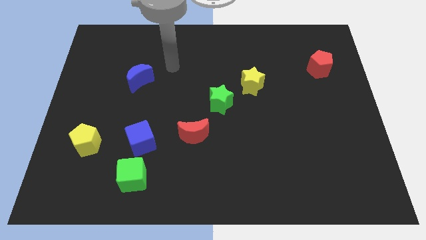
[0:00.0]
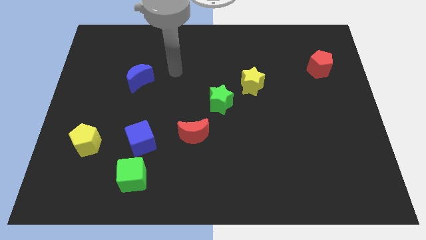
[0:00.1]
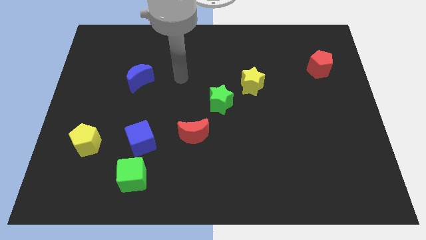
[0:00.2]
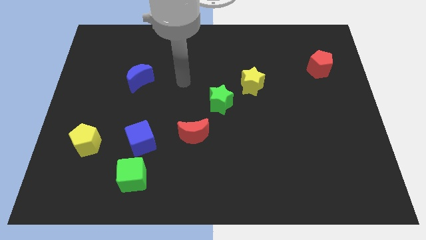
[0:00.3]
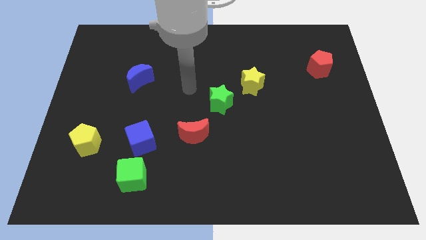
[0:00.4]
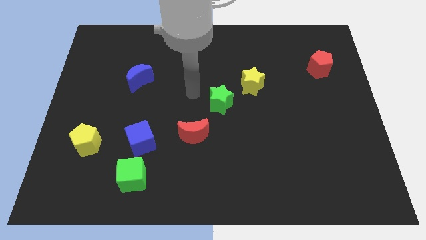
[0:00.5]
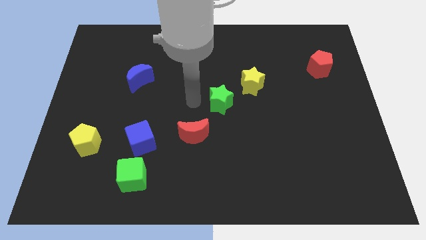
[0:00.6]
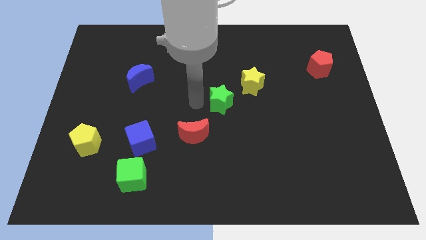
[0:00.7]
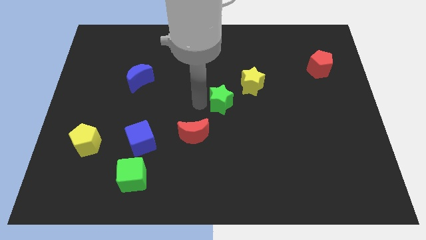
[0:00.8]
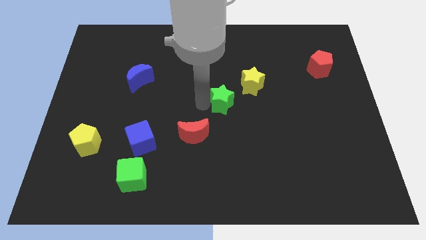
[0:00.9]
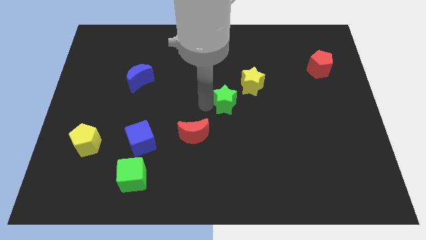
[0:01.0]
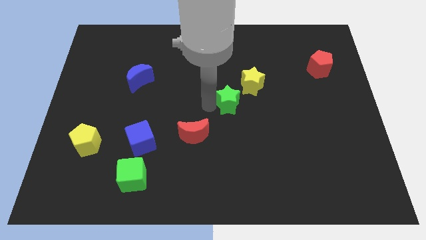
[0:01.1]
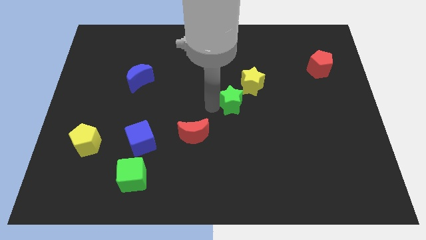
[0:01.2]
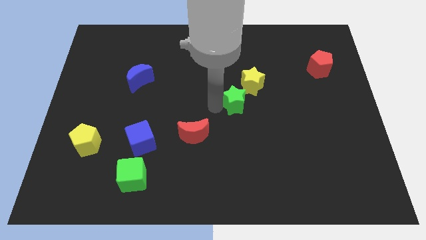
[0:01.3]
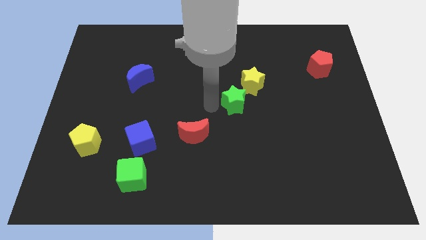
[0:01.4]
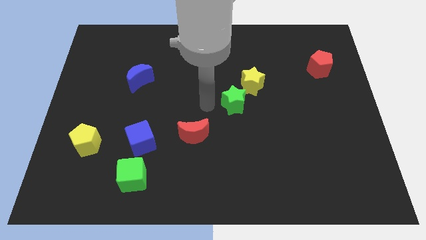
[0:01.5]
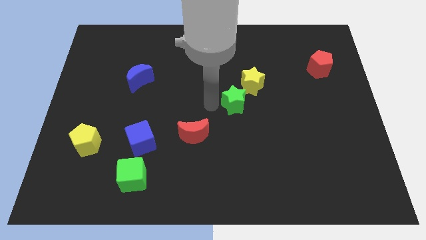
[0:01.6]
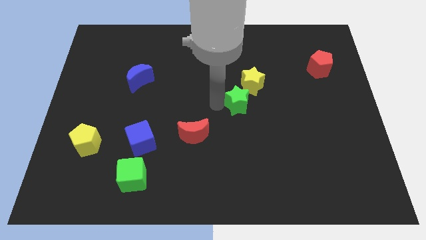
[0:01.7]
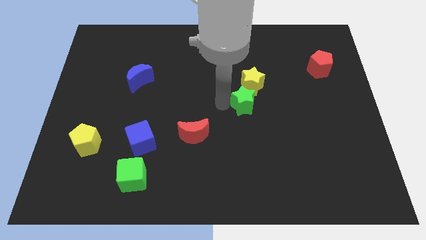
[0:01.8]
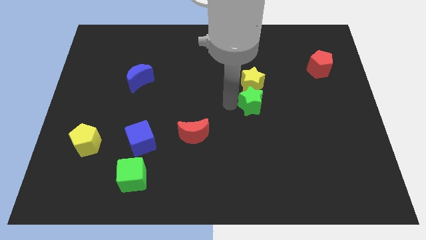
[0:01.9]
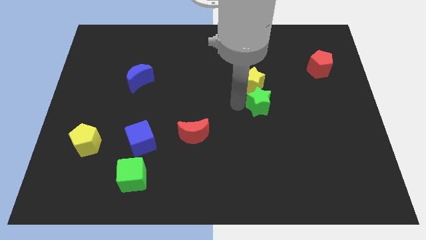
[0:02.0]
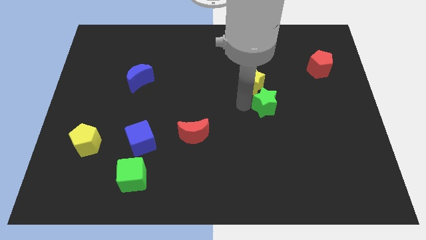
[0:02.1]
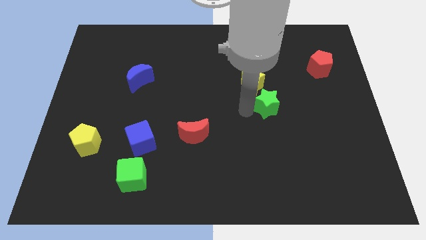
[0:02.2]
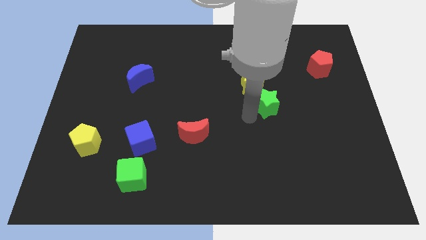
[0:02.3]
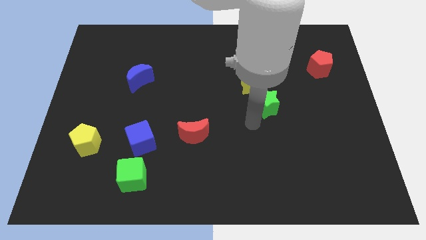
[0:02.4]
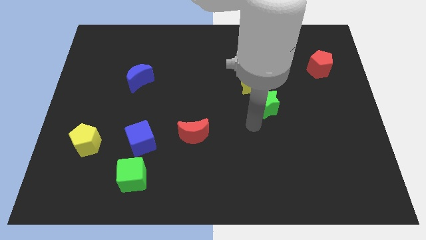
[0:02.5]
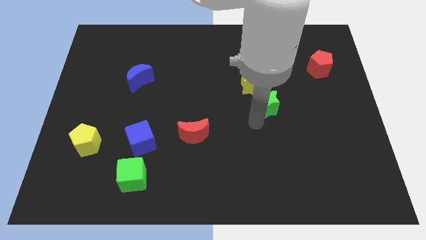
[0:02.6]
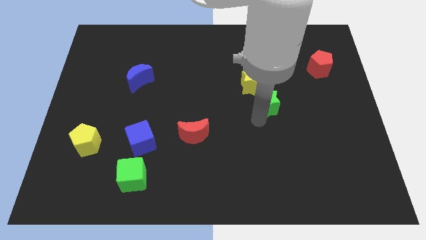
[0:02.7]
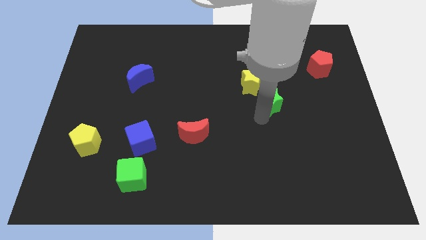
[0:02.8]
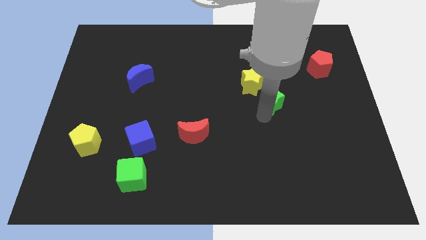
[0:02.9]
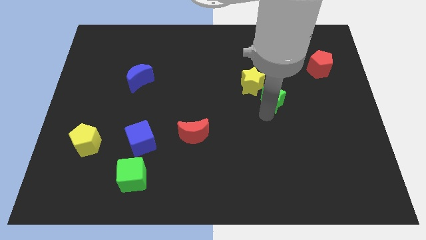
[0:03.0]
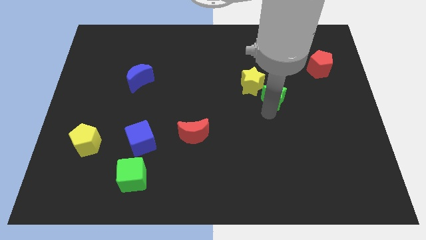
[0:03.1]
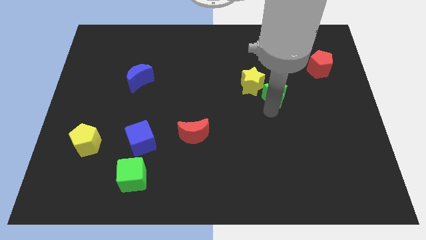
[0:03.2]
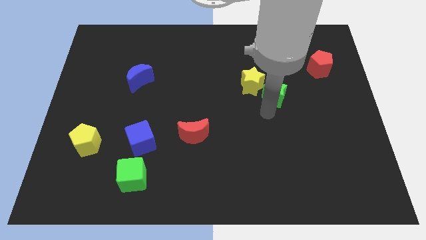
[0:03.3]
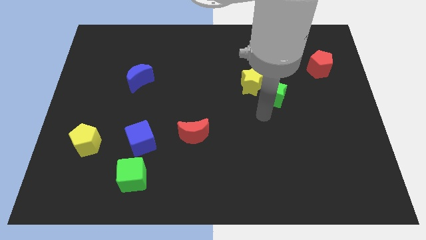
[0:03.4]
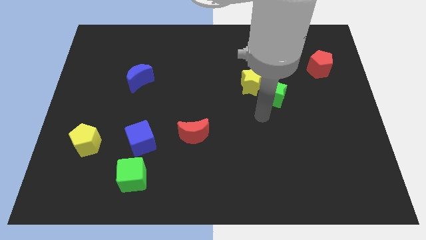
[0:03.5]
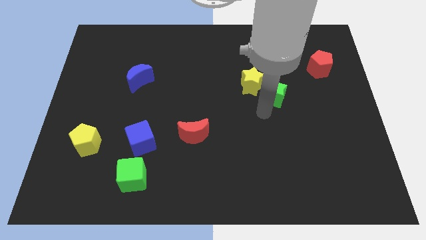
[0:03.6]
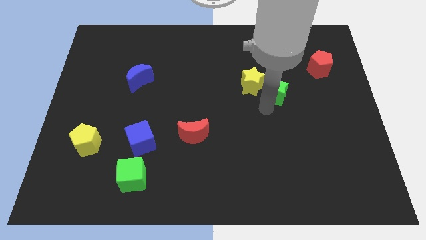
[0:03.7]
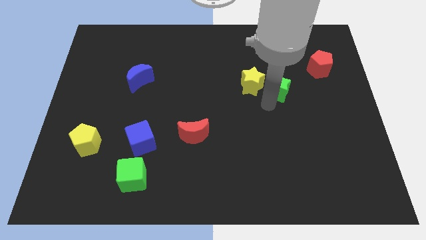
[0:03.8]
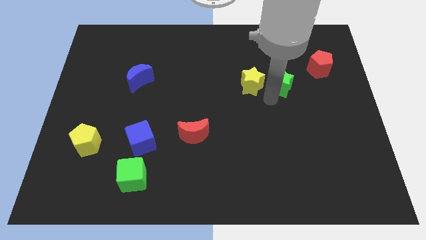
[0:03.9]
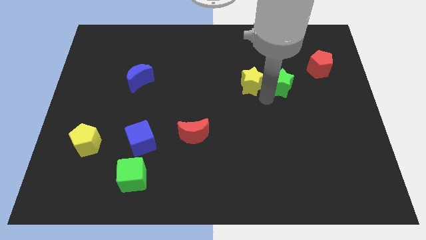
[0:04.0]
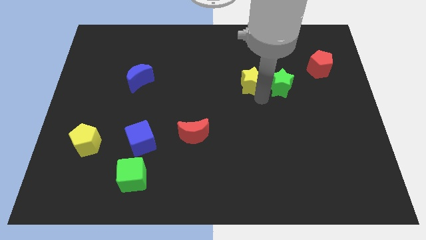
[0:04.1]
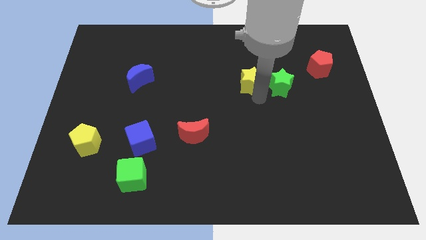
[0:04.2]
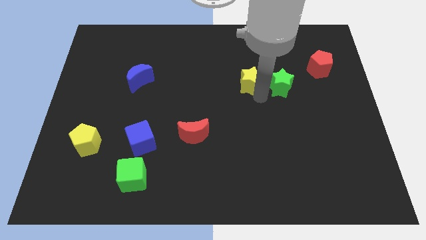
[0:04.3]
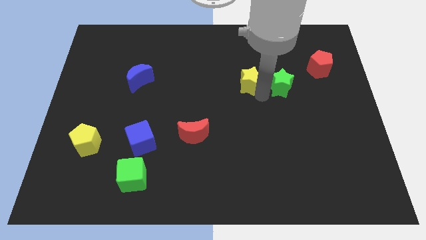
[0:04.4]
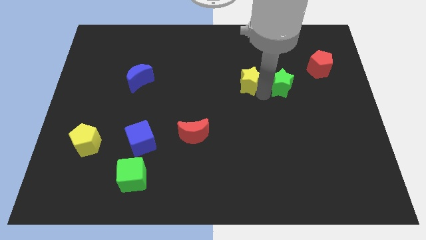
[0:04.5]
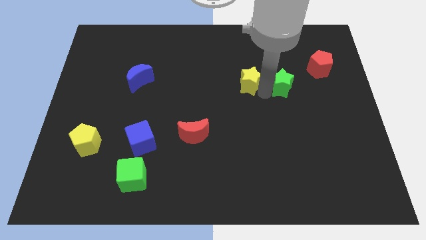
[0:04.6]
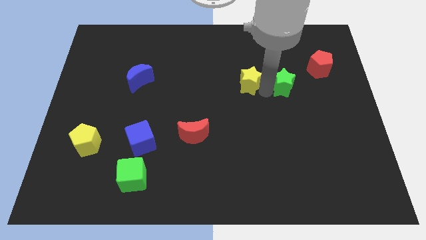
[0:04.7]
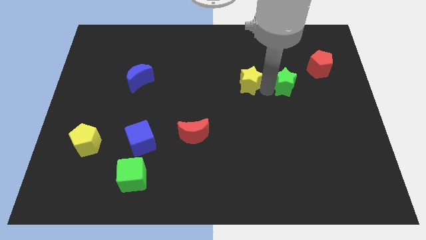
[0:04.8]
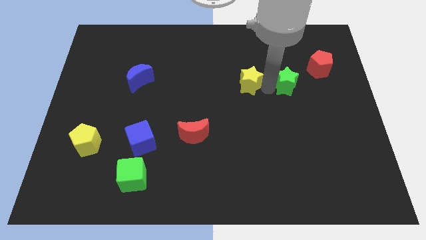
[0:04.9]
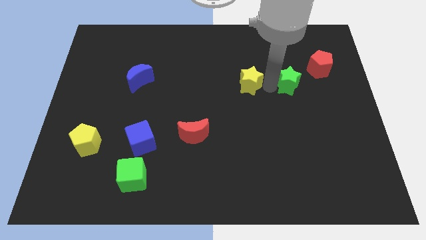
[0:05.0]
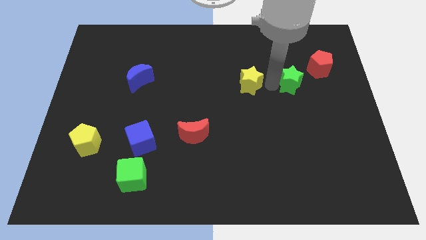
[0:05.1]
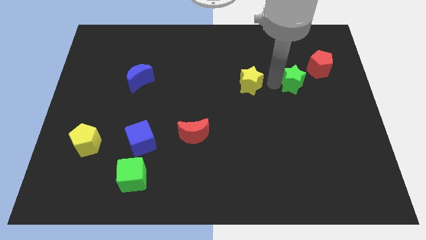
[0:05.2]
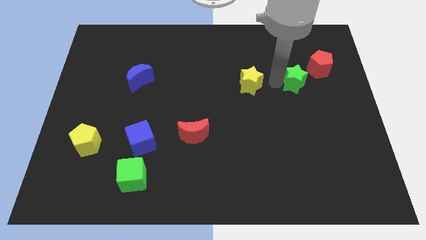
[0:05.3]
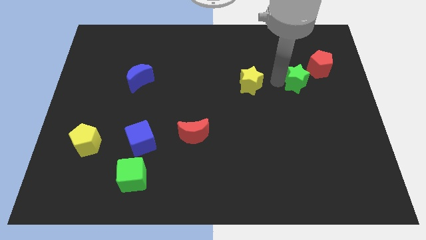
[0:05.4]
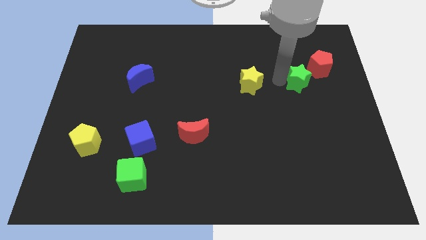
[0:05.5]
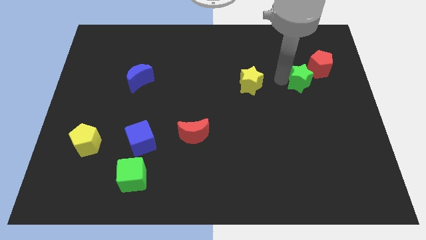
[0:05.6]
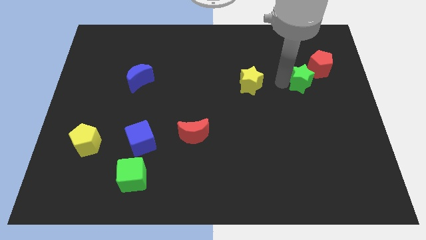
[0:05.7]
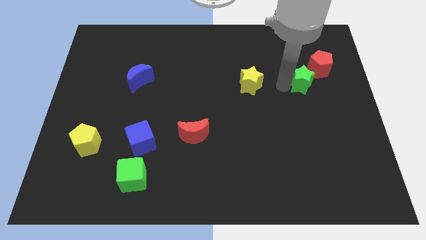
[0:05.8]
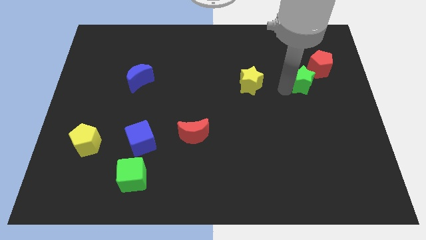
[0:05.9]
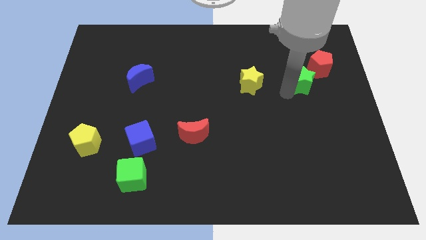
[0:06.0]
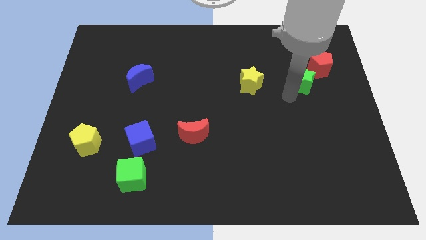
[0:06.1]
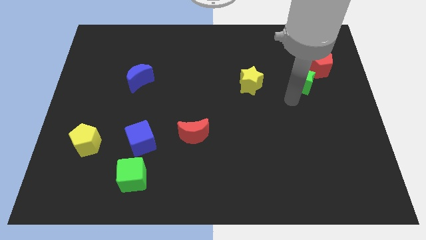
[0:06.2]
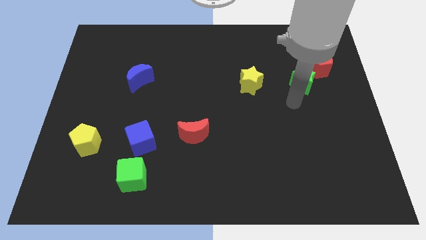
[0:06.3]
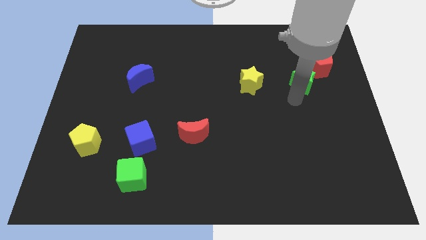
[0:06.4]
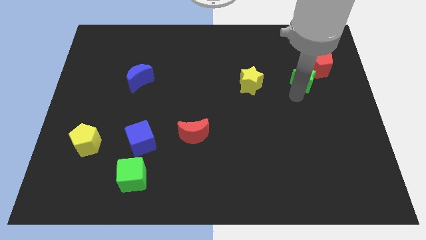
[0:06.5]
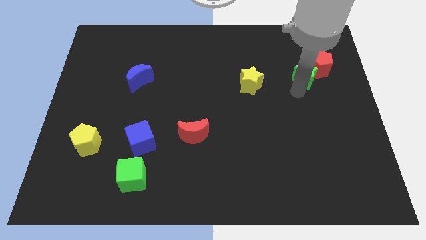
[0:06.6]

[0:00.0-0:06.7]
put the green star to the red pentagon
